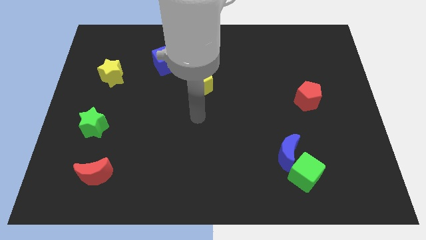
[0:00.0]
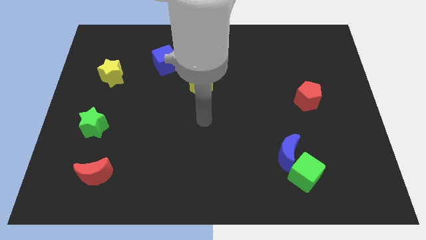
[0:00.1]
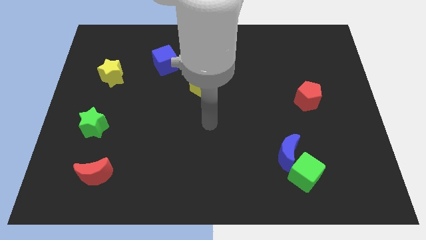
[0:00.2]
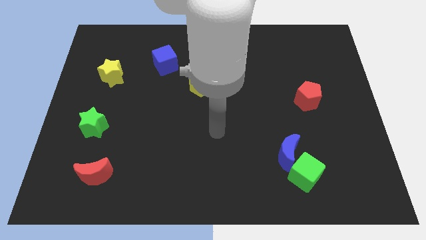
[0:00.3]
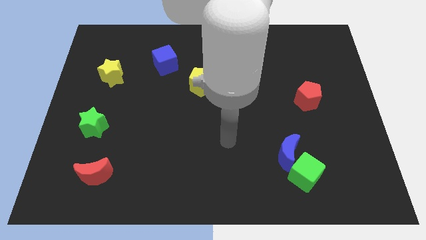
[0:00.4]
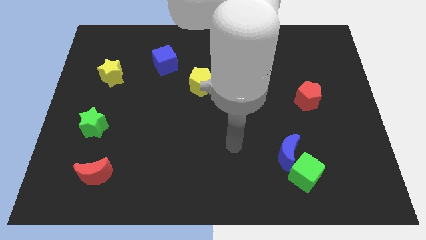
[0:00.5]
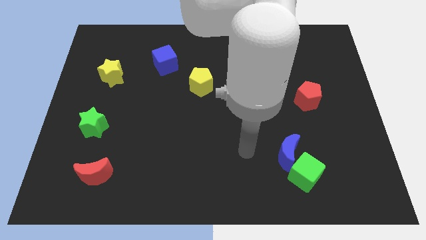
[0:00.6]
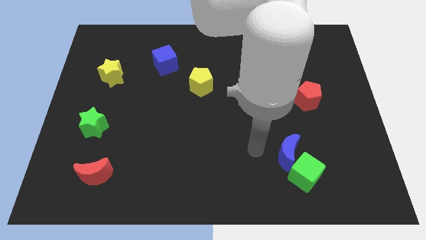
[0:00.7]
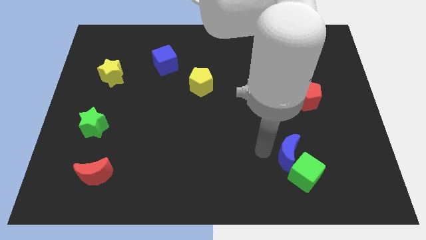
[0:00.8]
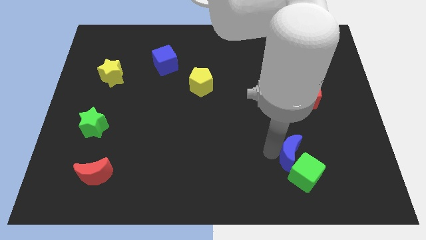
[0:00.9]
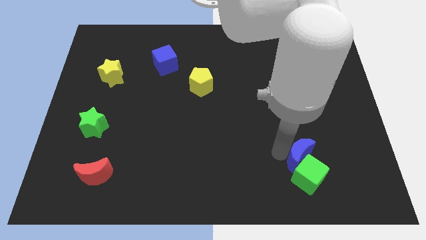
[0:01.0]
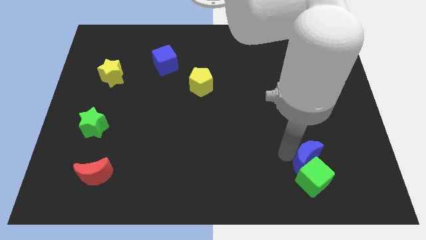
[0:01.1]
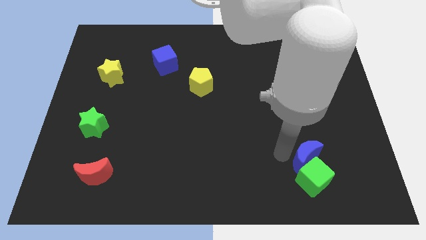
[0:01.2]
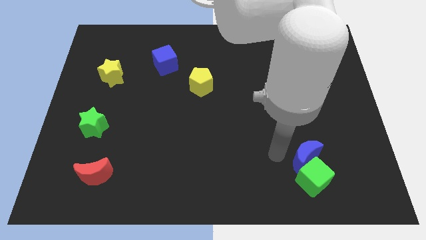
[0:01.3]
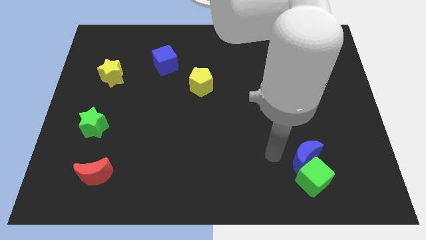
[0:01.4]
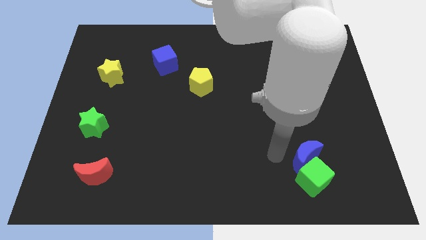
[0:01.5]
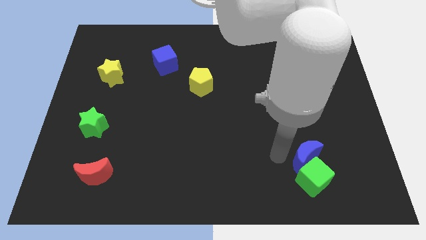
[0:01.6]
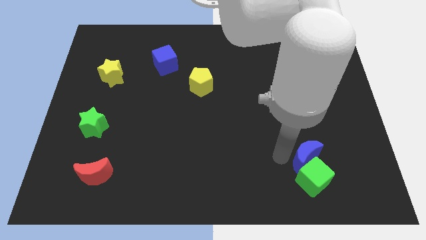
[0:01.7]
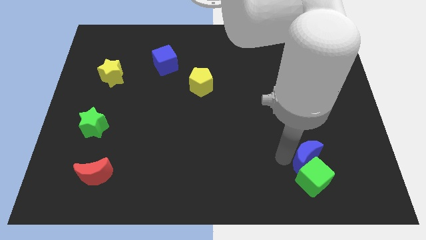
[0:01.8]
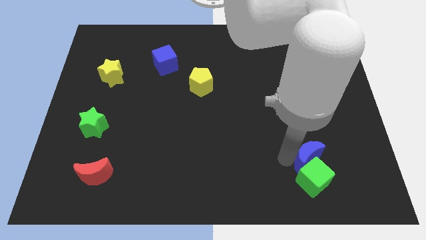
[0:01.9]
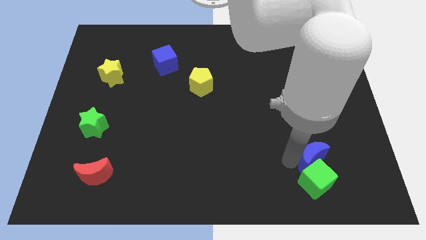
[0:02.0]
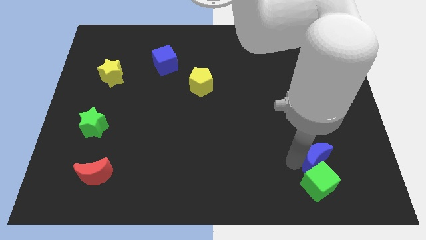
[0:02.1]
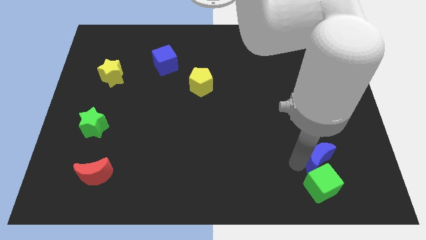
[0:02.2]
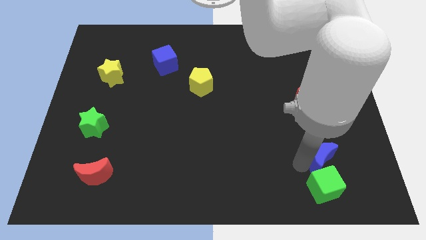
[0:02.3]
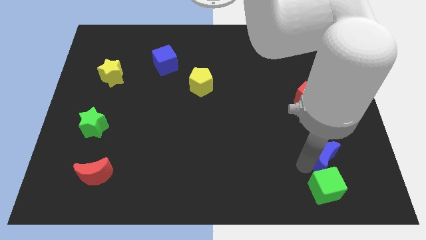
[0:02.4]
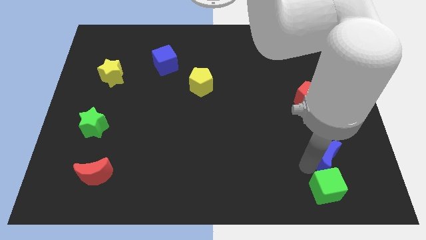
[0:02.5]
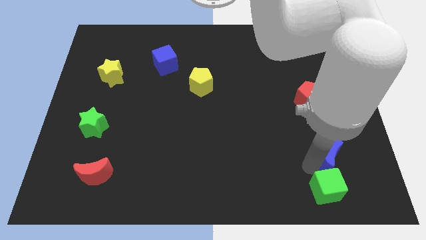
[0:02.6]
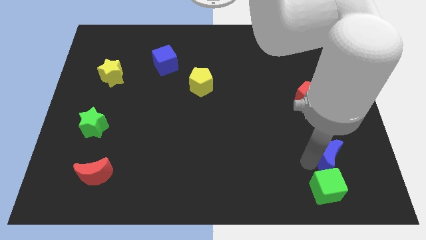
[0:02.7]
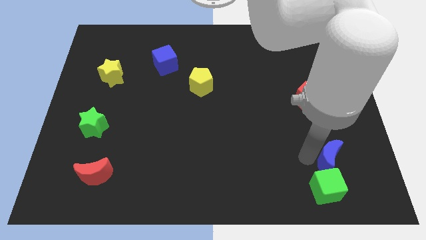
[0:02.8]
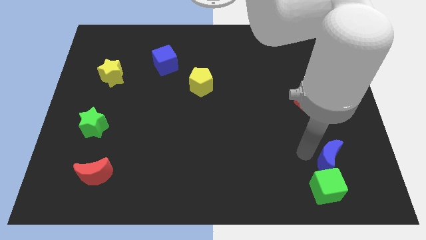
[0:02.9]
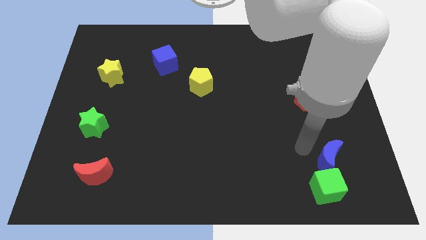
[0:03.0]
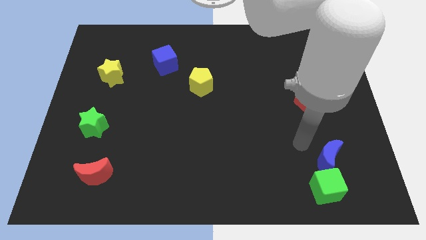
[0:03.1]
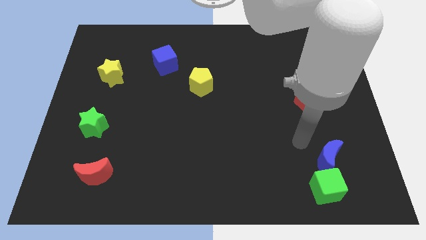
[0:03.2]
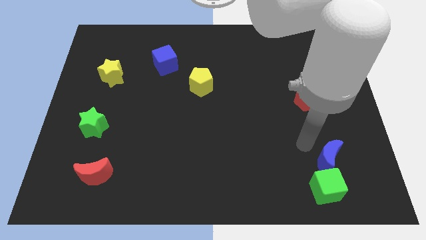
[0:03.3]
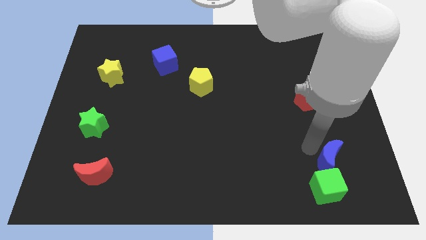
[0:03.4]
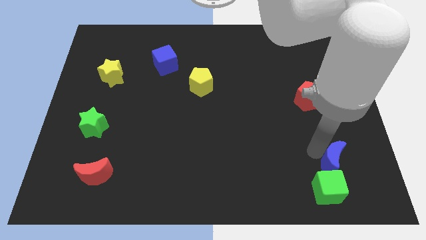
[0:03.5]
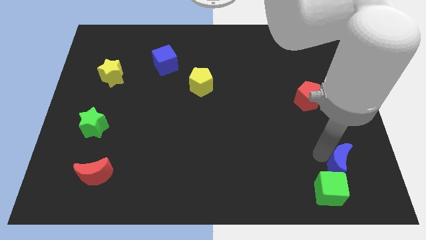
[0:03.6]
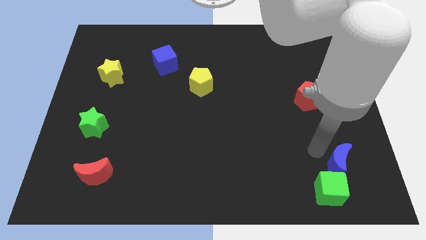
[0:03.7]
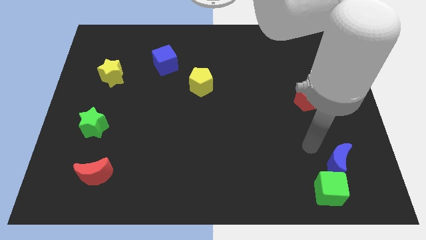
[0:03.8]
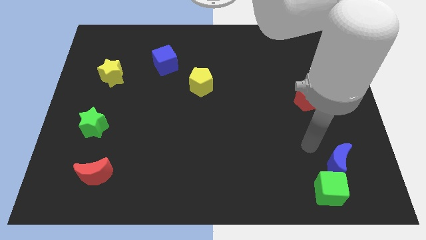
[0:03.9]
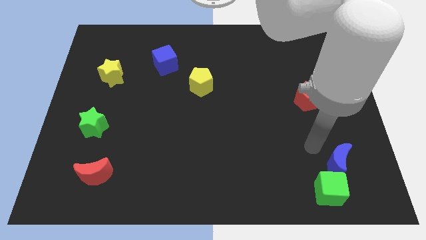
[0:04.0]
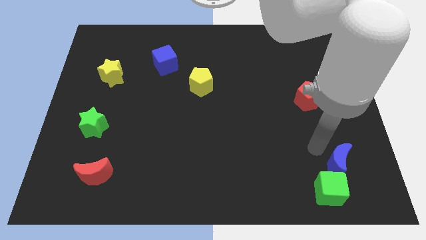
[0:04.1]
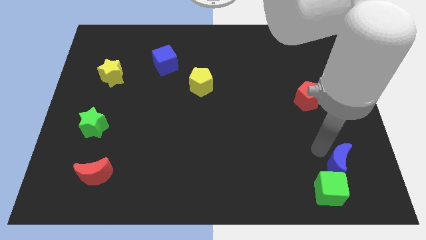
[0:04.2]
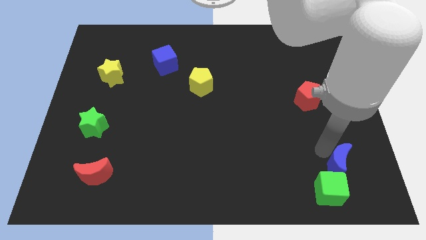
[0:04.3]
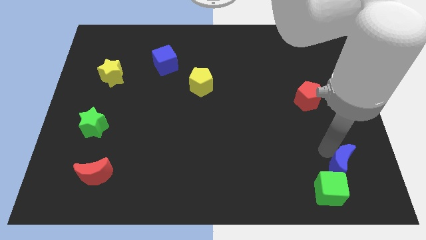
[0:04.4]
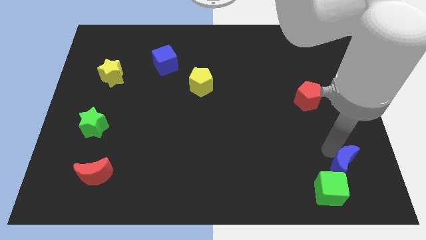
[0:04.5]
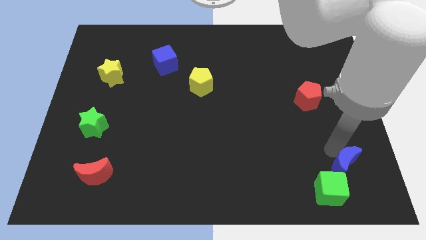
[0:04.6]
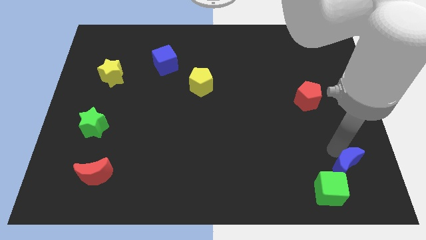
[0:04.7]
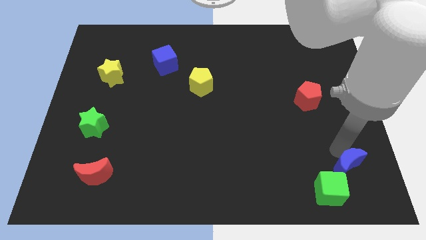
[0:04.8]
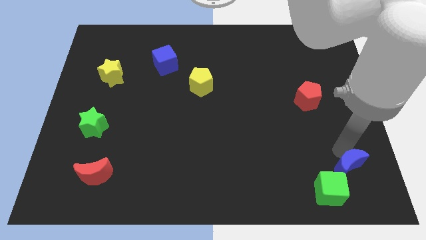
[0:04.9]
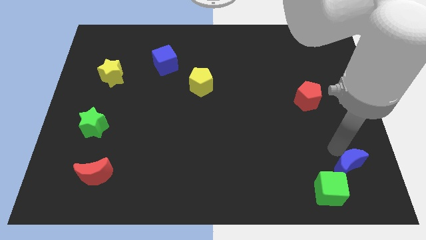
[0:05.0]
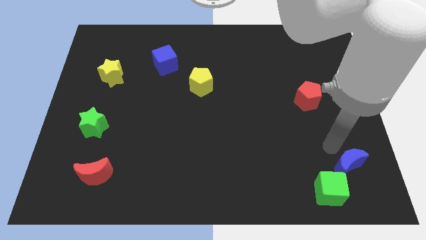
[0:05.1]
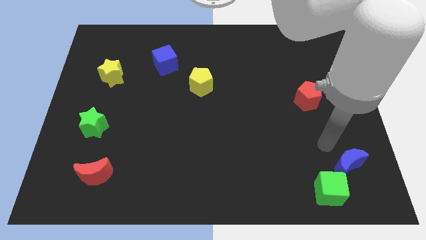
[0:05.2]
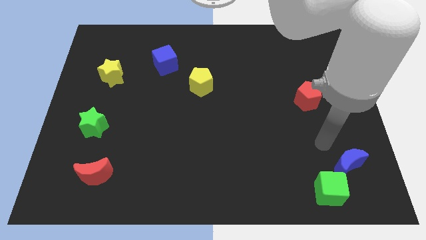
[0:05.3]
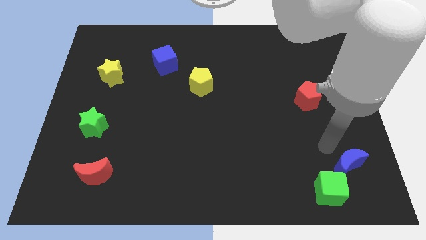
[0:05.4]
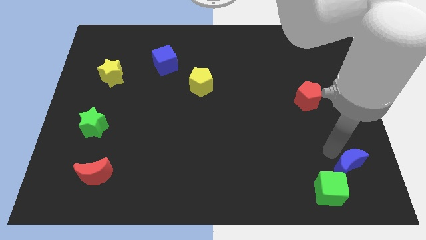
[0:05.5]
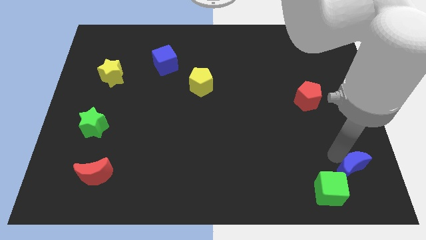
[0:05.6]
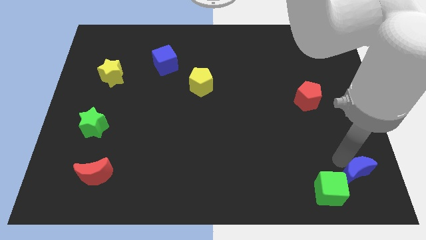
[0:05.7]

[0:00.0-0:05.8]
put the blue moon to the lower right corner

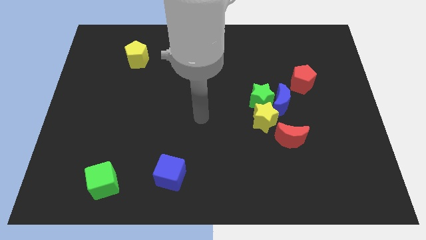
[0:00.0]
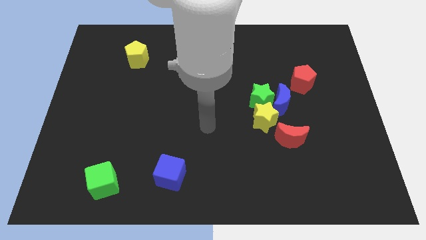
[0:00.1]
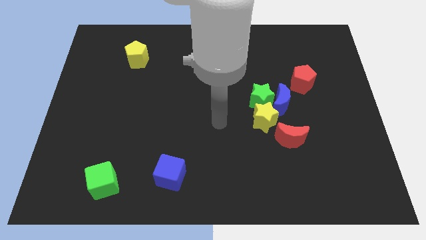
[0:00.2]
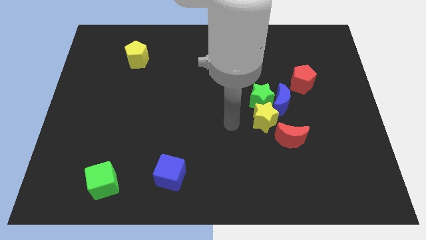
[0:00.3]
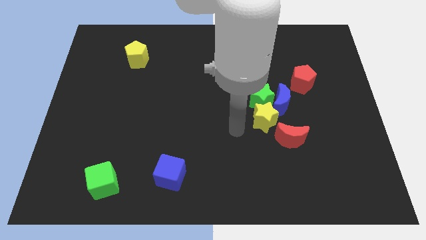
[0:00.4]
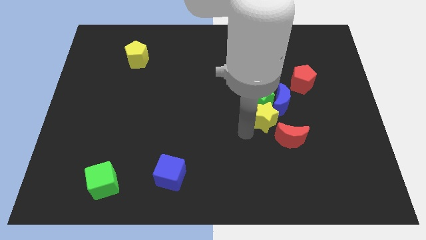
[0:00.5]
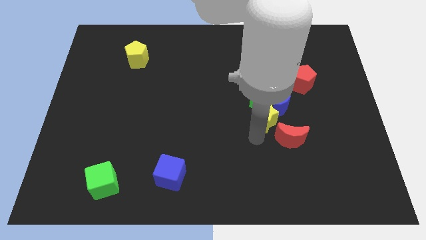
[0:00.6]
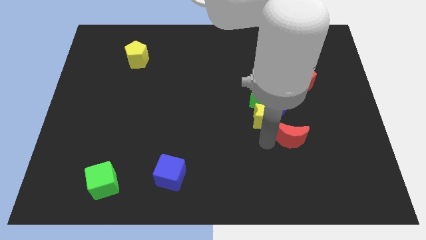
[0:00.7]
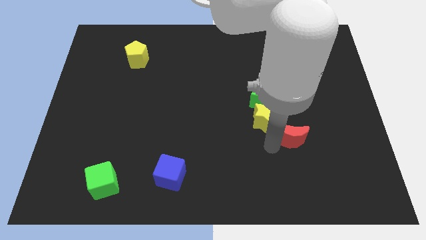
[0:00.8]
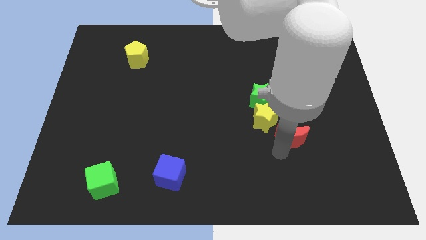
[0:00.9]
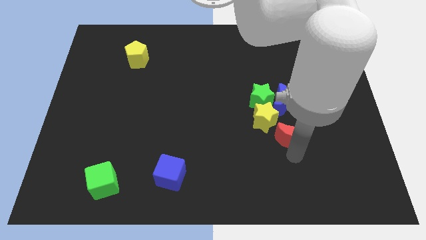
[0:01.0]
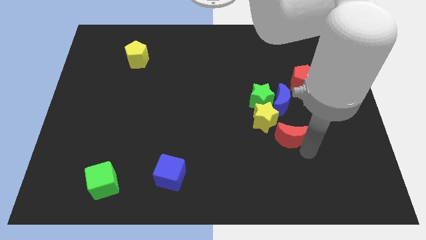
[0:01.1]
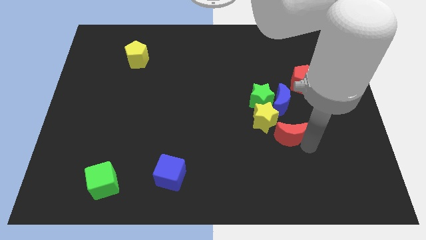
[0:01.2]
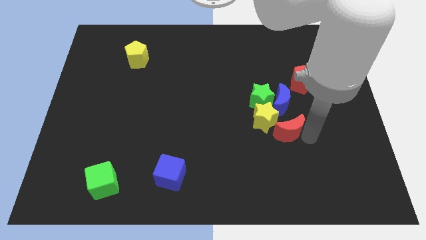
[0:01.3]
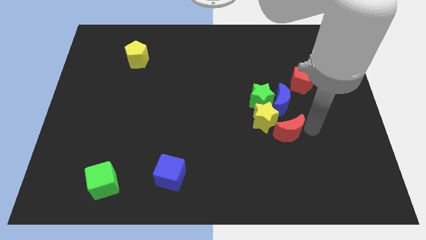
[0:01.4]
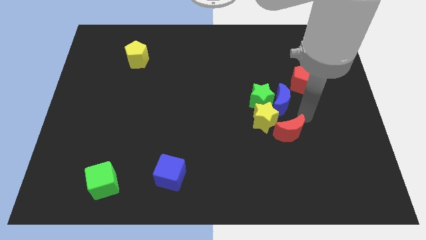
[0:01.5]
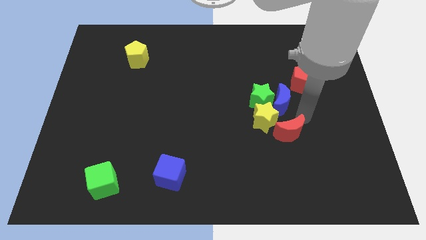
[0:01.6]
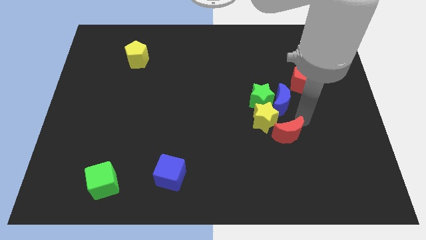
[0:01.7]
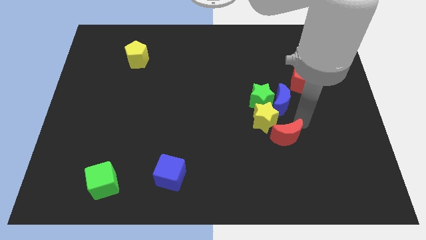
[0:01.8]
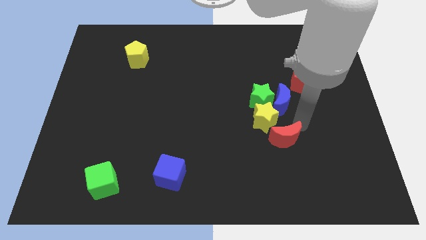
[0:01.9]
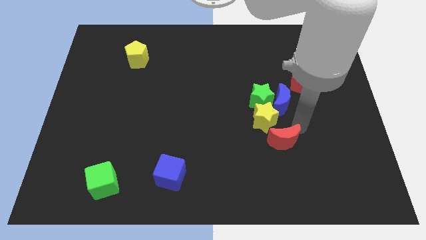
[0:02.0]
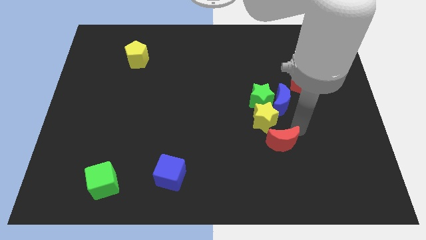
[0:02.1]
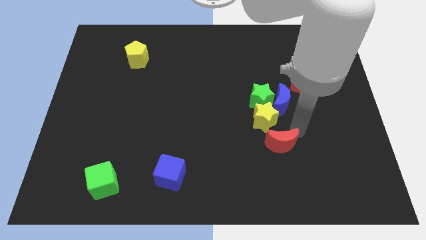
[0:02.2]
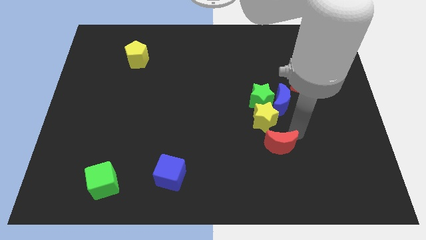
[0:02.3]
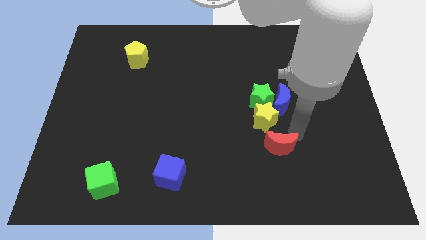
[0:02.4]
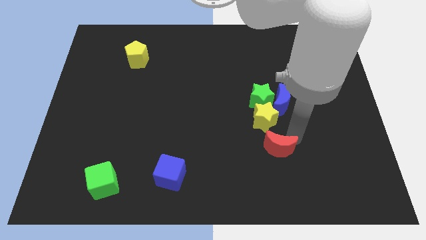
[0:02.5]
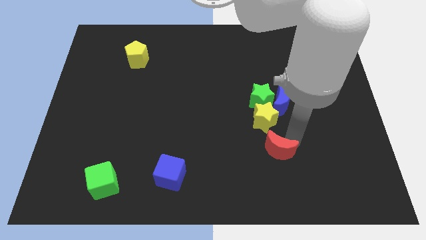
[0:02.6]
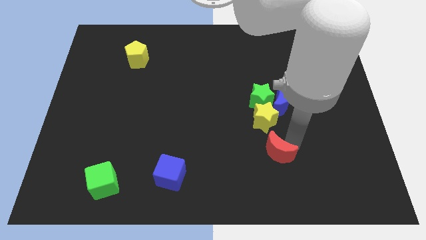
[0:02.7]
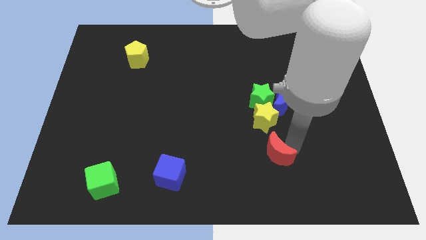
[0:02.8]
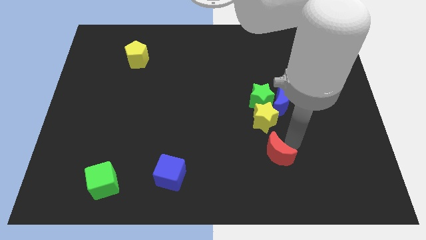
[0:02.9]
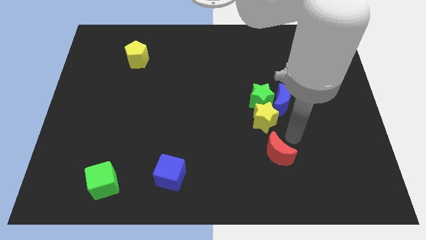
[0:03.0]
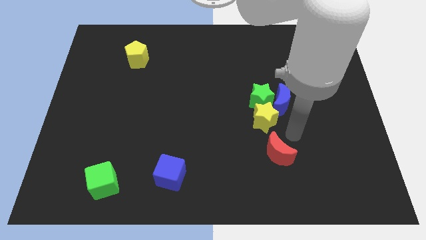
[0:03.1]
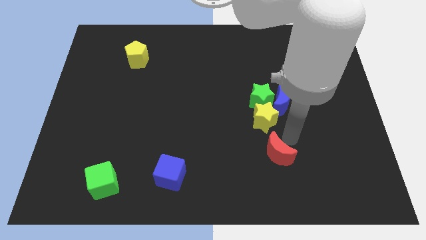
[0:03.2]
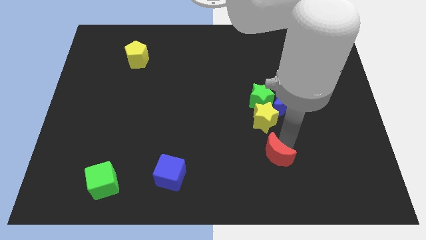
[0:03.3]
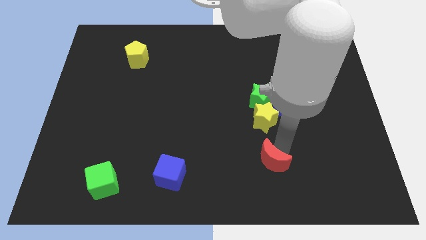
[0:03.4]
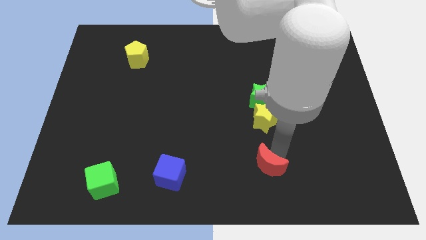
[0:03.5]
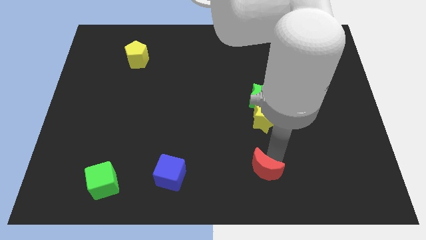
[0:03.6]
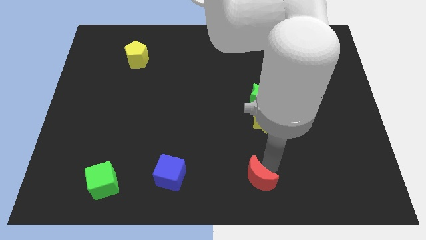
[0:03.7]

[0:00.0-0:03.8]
slide the red moon to the bottom side
